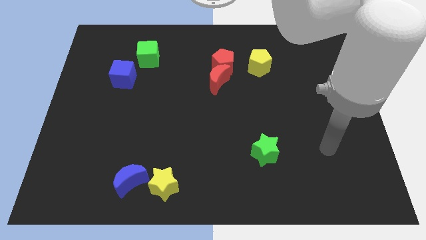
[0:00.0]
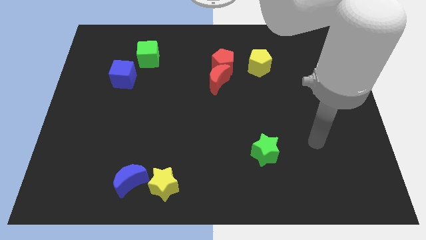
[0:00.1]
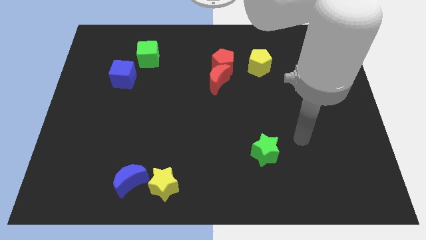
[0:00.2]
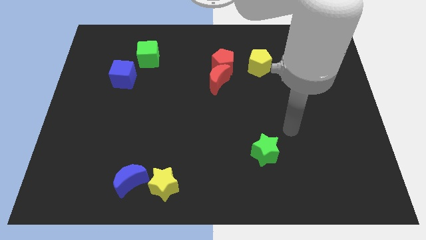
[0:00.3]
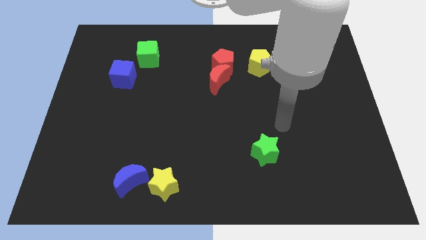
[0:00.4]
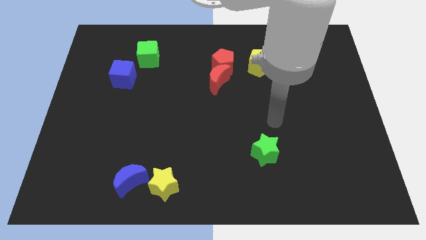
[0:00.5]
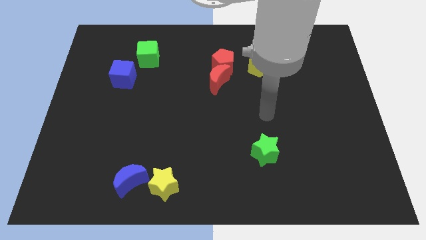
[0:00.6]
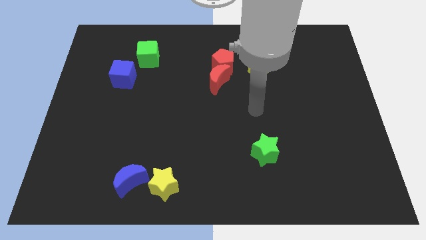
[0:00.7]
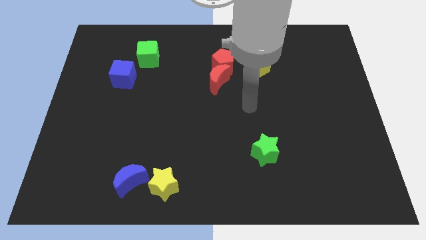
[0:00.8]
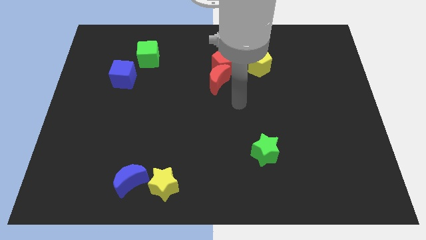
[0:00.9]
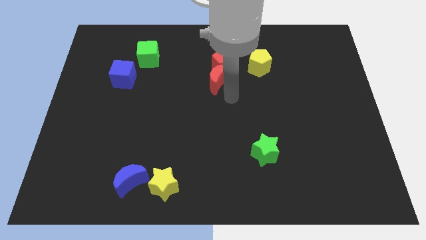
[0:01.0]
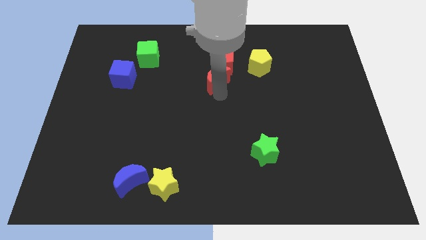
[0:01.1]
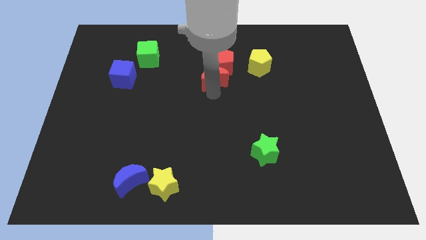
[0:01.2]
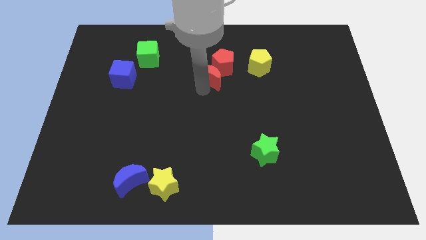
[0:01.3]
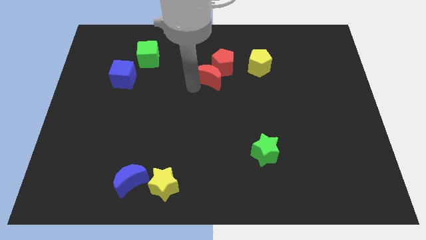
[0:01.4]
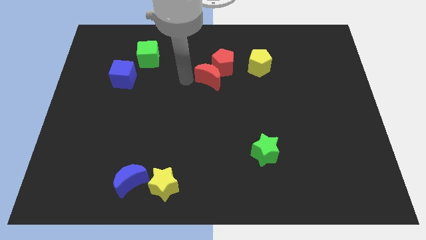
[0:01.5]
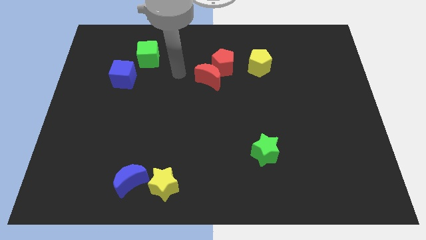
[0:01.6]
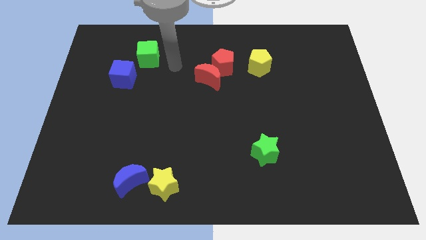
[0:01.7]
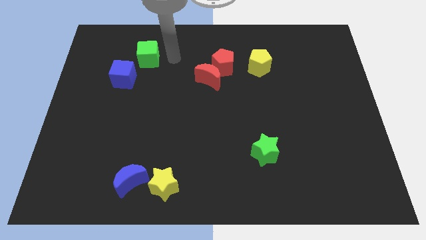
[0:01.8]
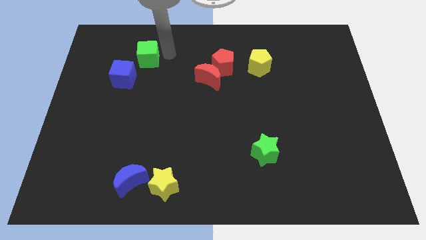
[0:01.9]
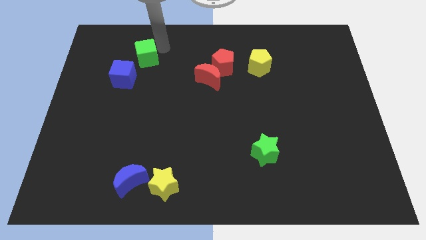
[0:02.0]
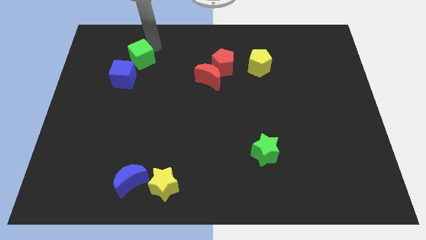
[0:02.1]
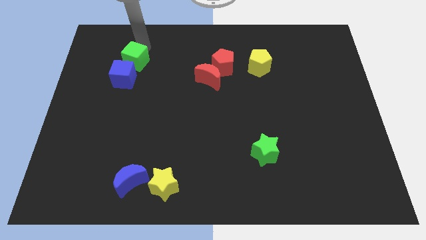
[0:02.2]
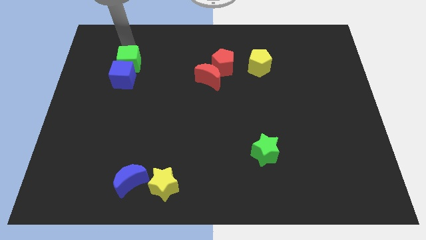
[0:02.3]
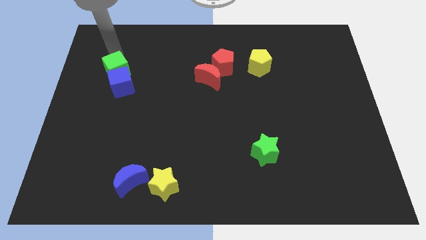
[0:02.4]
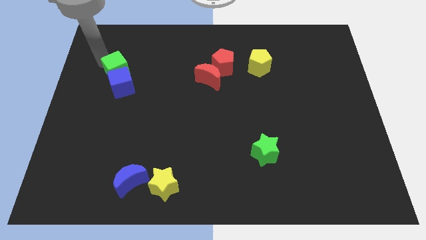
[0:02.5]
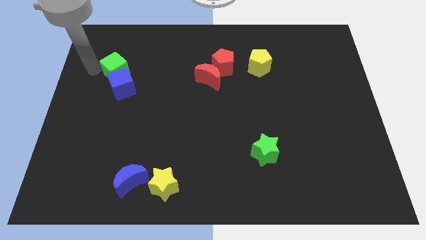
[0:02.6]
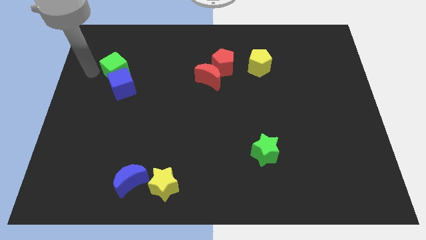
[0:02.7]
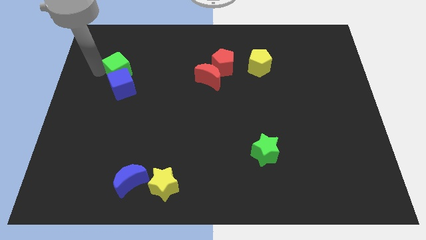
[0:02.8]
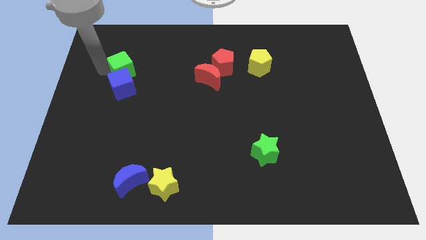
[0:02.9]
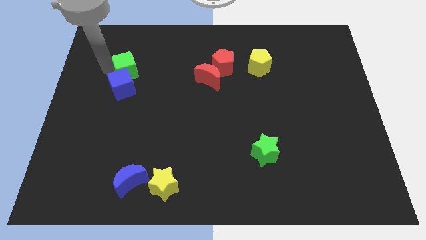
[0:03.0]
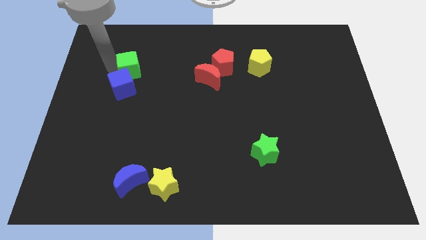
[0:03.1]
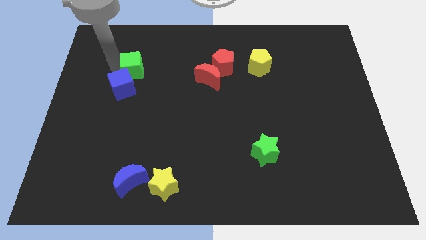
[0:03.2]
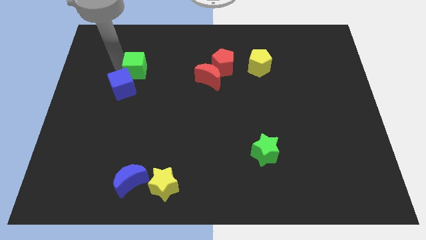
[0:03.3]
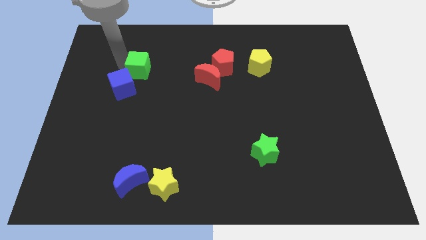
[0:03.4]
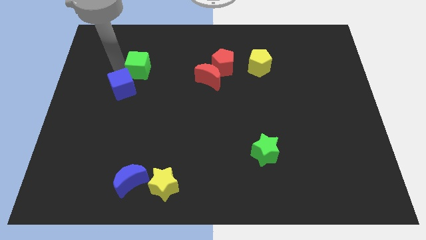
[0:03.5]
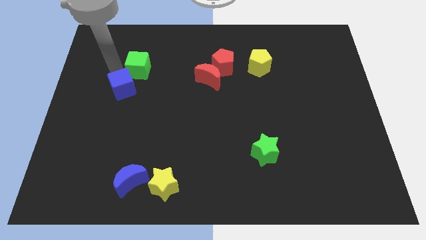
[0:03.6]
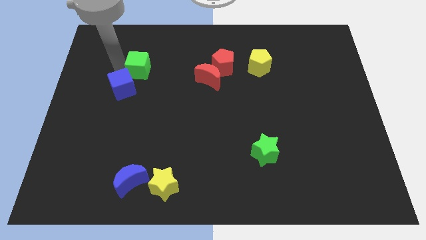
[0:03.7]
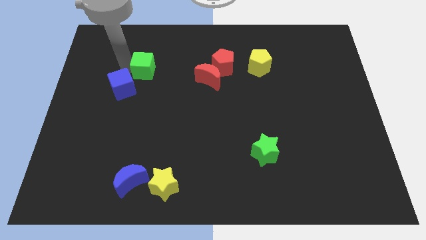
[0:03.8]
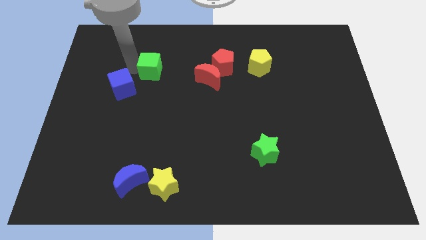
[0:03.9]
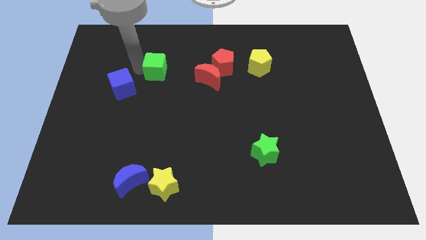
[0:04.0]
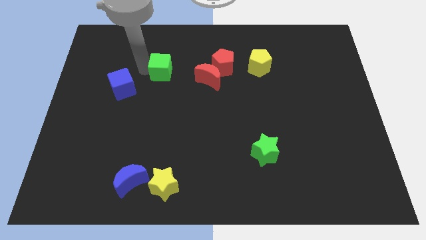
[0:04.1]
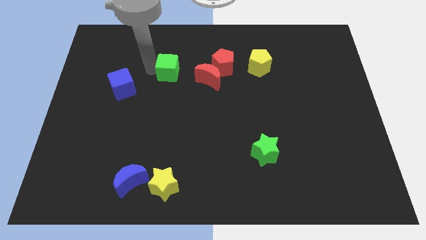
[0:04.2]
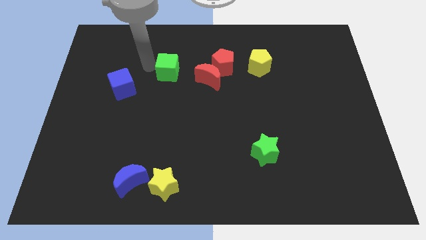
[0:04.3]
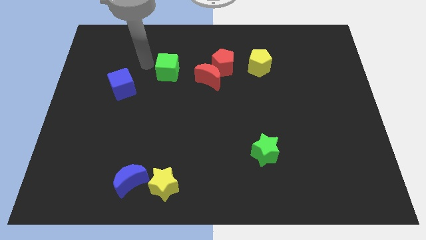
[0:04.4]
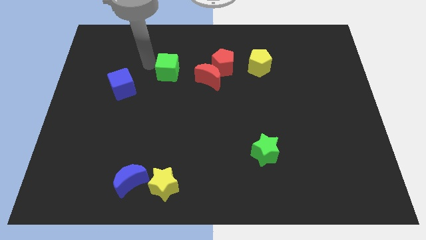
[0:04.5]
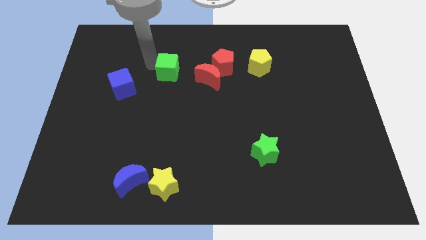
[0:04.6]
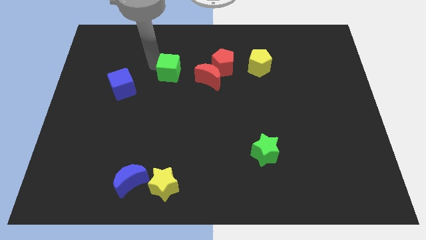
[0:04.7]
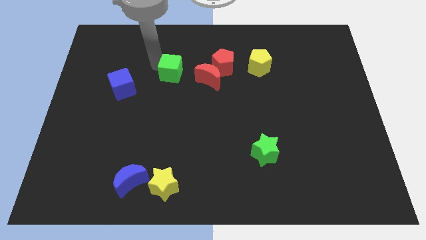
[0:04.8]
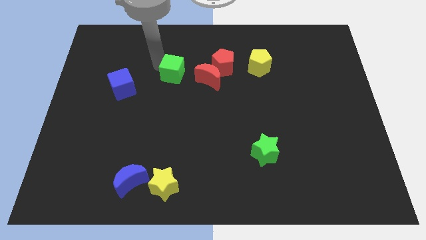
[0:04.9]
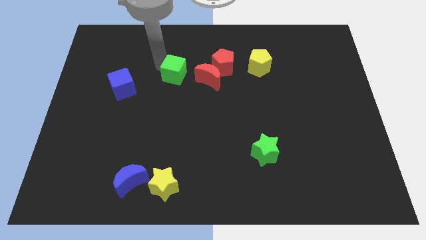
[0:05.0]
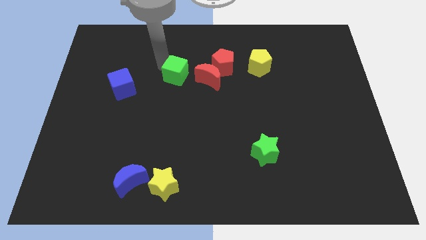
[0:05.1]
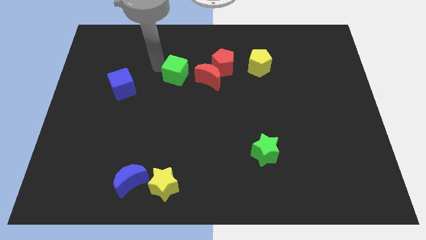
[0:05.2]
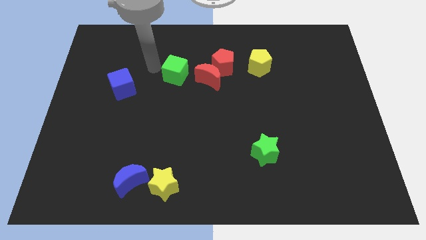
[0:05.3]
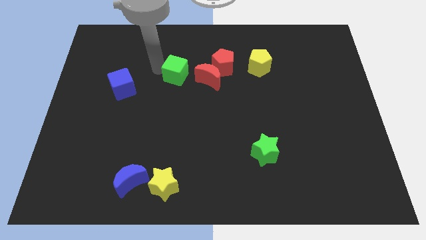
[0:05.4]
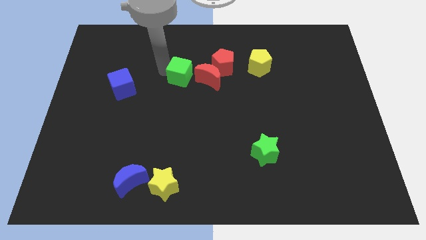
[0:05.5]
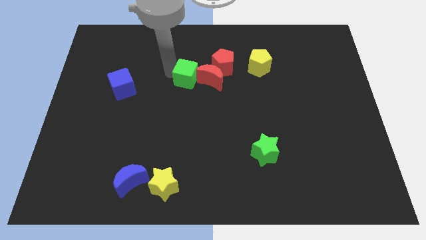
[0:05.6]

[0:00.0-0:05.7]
slide the green cube diagonally down and to the left of the red pentagon

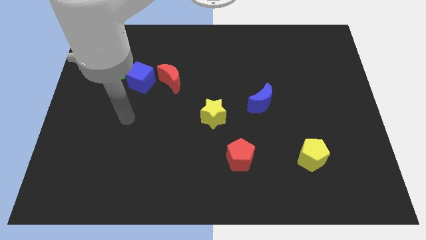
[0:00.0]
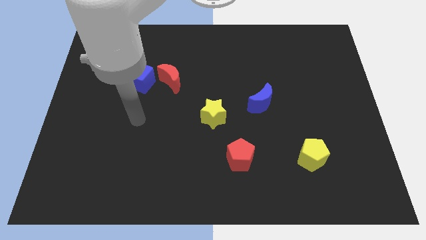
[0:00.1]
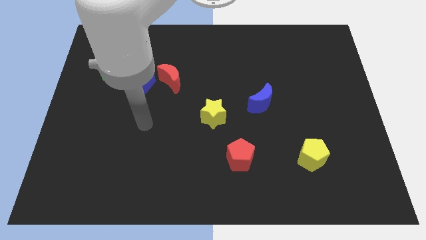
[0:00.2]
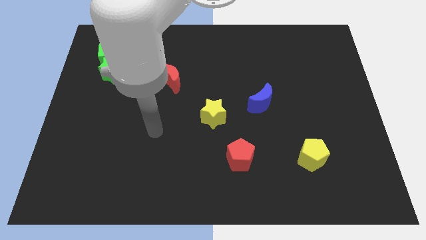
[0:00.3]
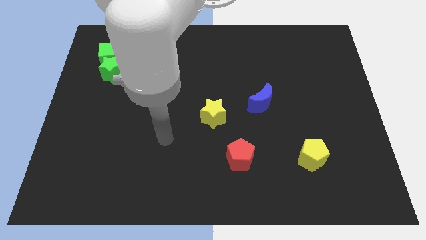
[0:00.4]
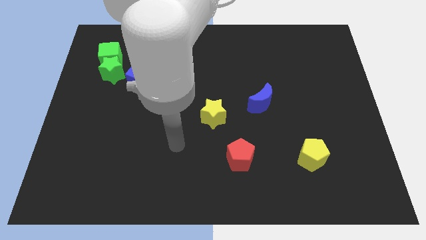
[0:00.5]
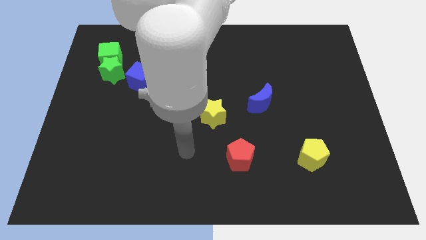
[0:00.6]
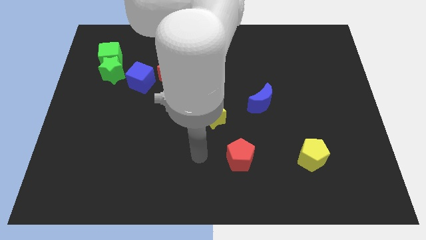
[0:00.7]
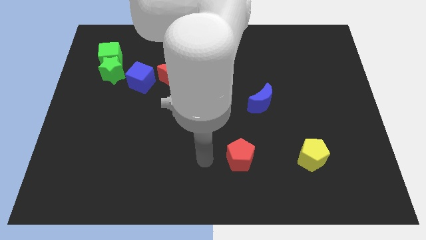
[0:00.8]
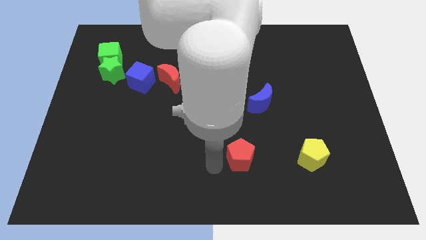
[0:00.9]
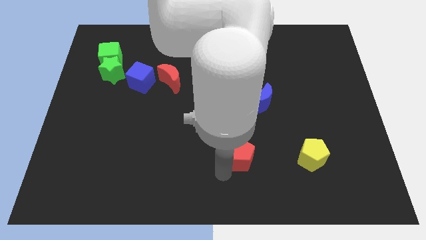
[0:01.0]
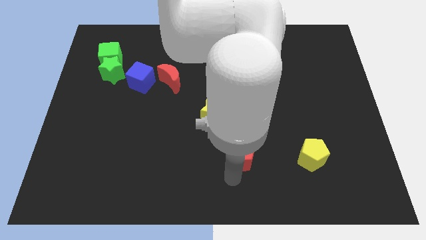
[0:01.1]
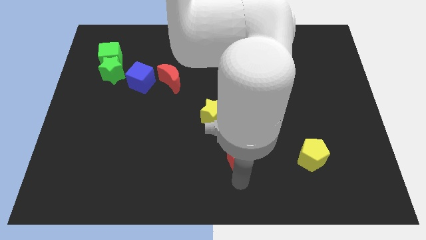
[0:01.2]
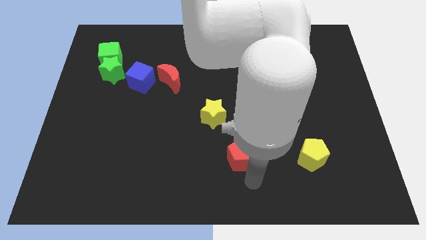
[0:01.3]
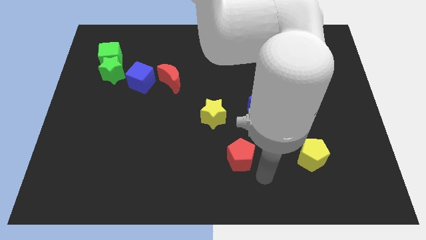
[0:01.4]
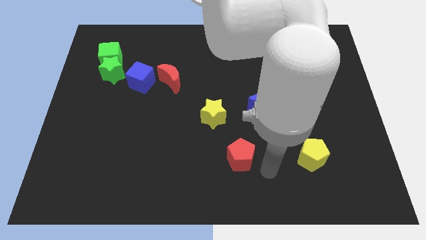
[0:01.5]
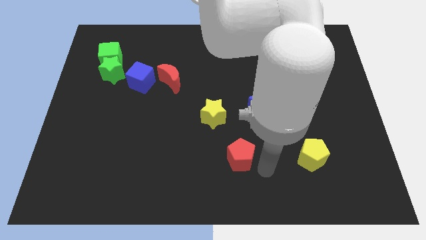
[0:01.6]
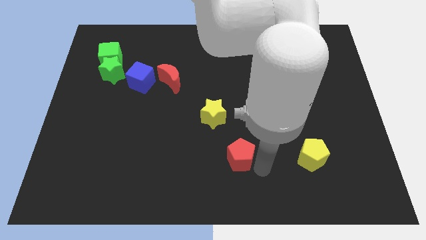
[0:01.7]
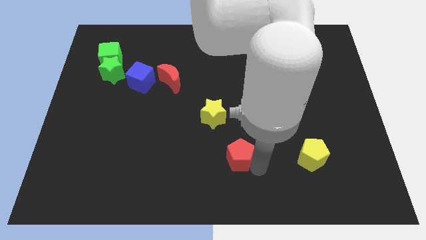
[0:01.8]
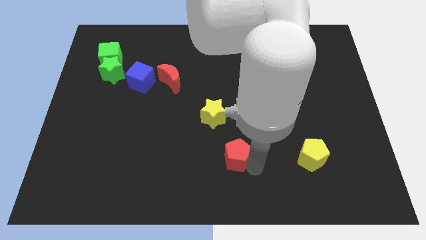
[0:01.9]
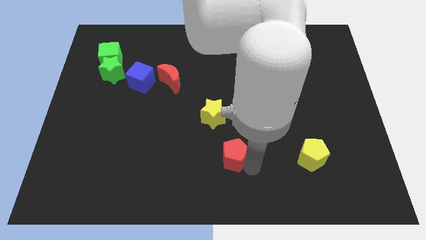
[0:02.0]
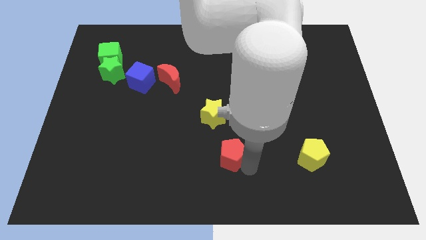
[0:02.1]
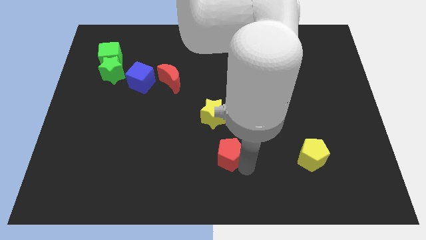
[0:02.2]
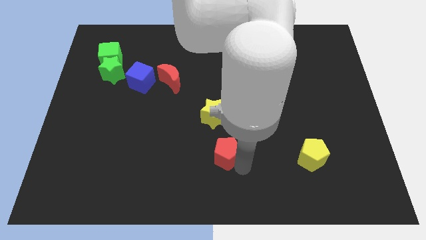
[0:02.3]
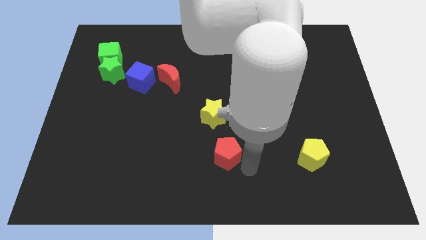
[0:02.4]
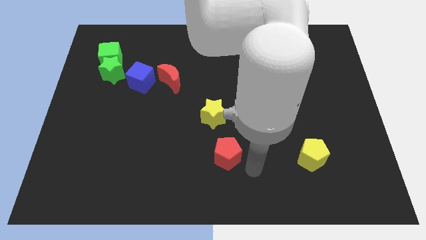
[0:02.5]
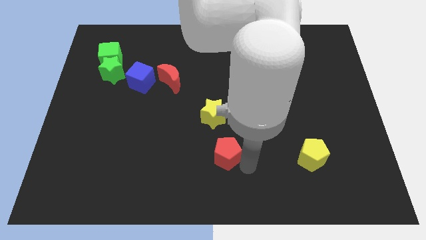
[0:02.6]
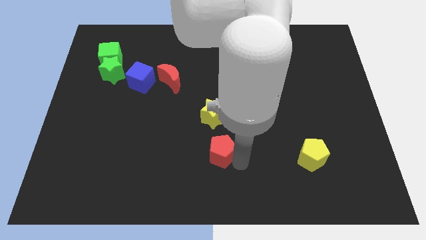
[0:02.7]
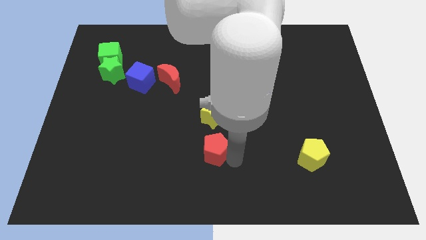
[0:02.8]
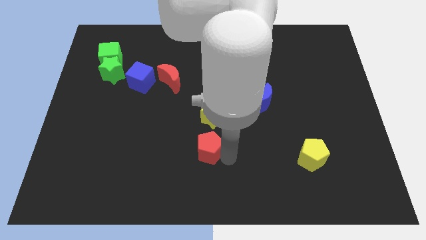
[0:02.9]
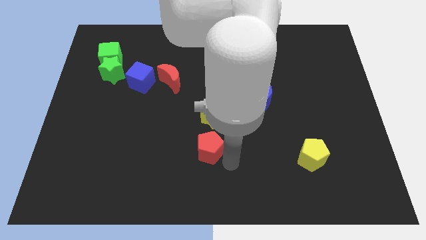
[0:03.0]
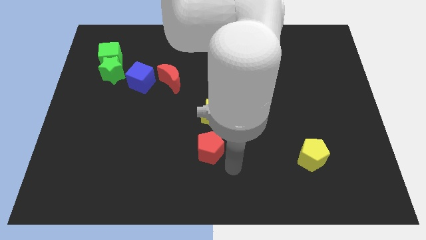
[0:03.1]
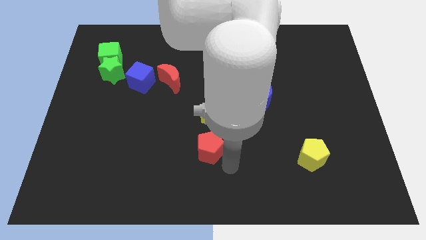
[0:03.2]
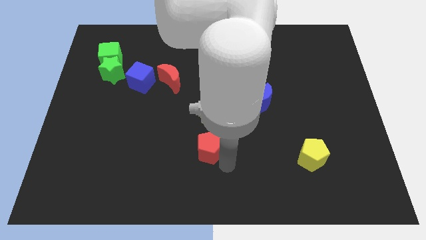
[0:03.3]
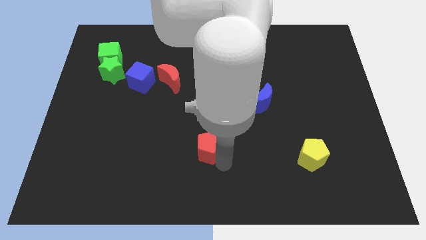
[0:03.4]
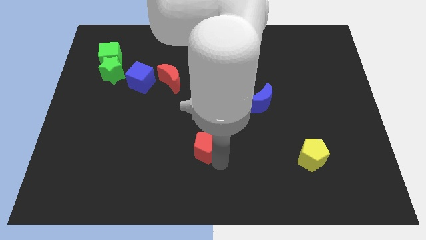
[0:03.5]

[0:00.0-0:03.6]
slide the red pentagon diagonally down and to the left of the yellow star
